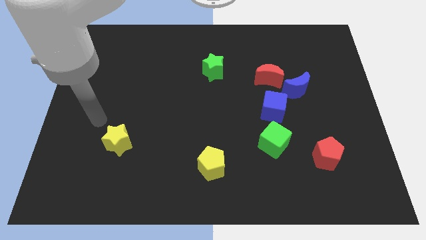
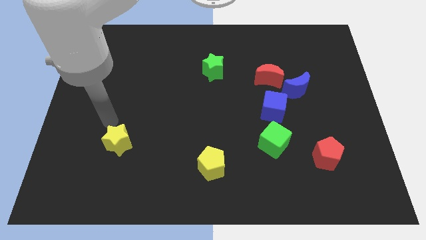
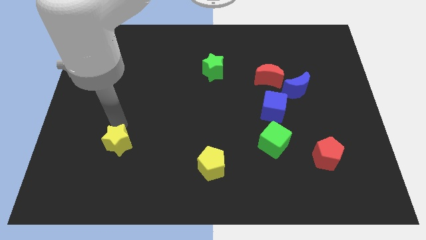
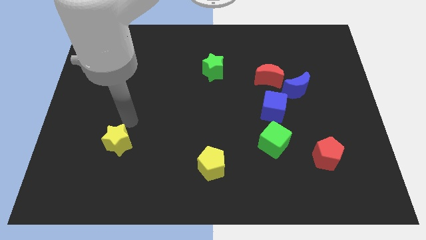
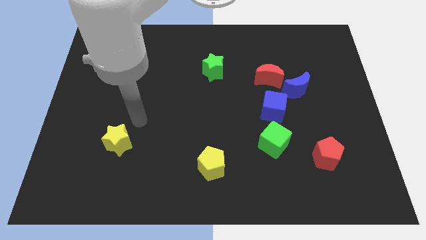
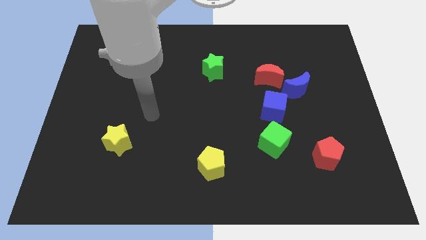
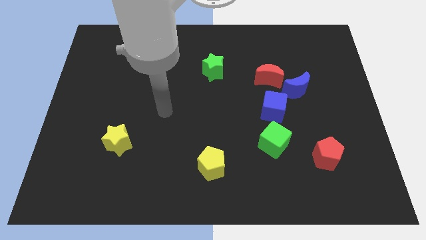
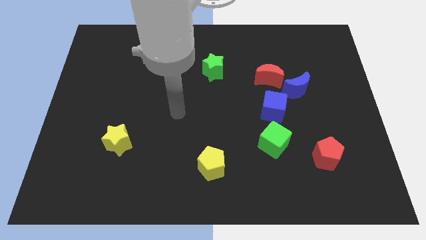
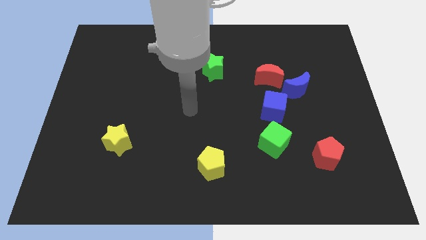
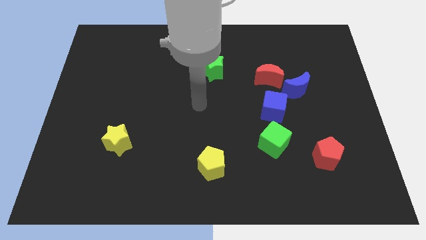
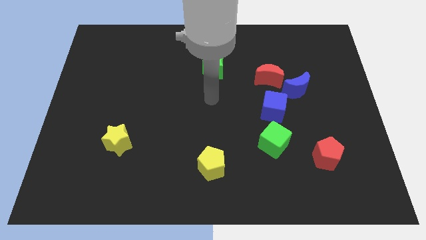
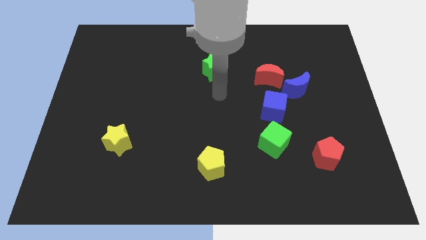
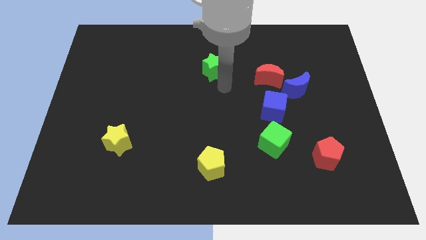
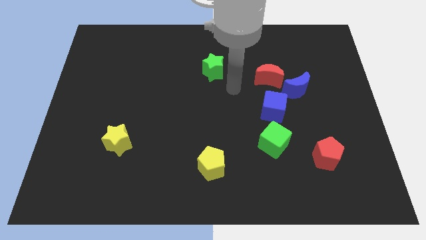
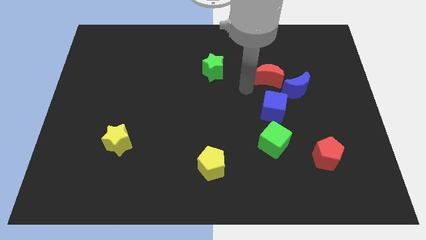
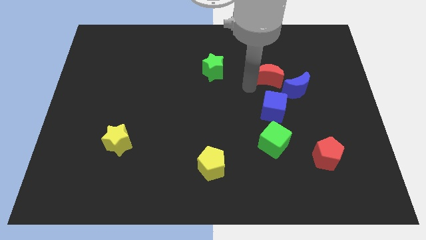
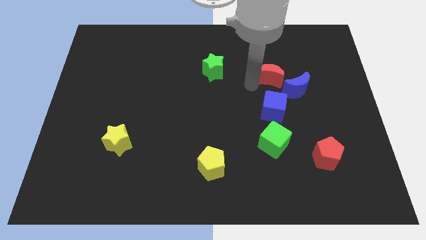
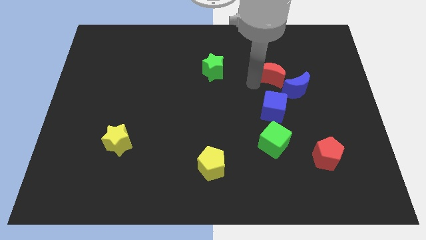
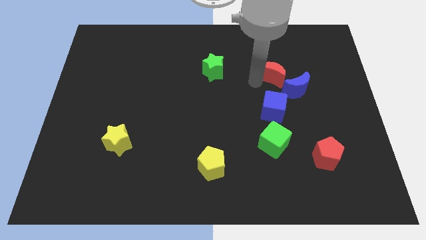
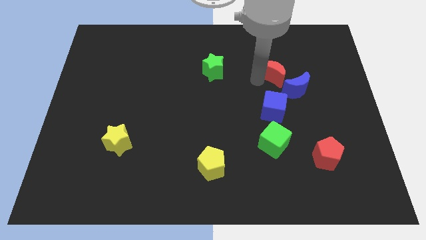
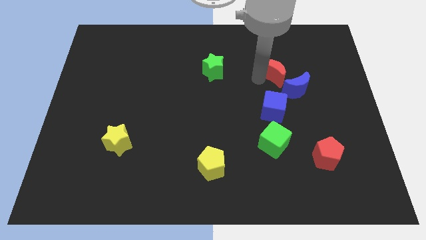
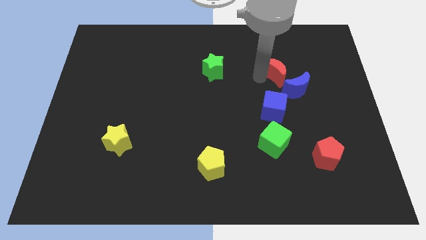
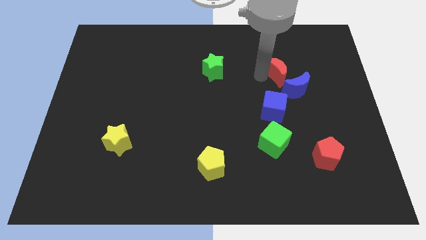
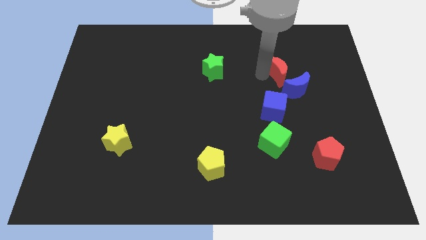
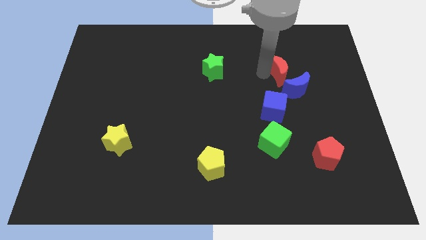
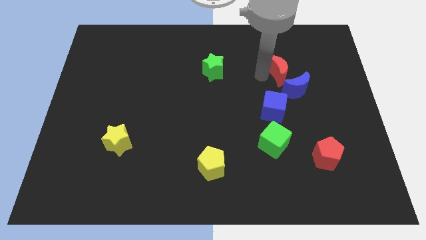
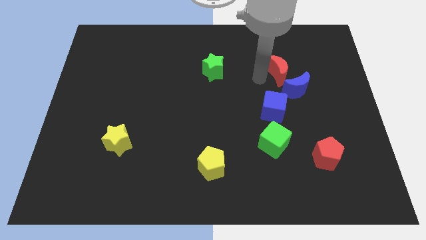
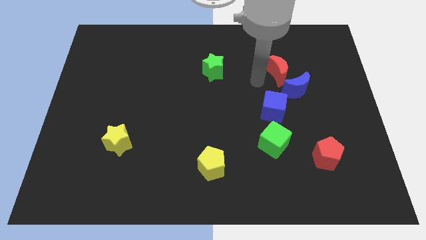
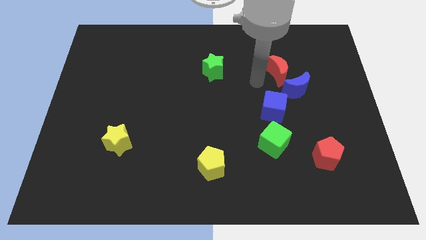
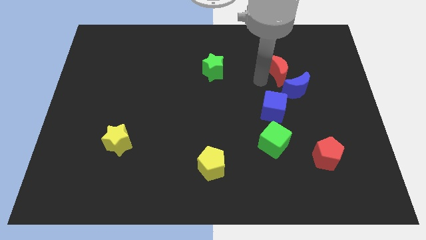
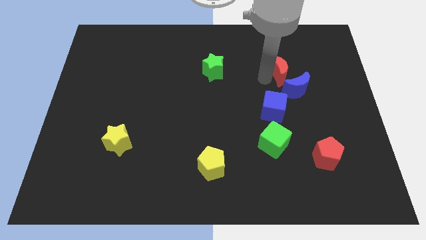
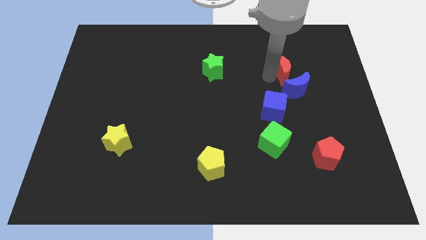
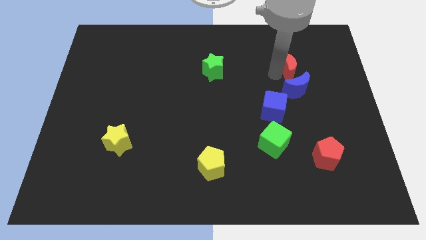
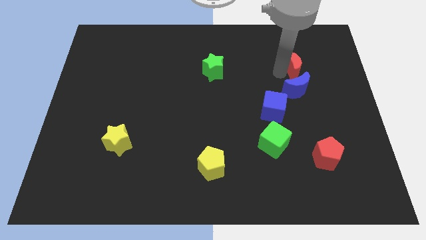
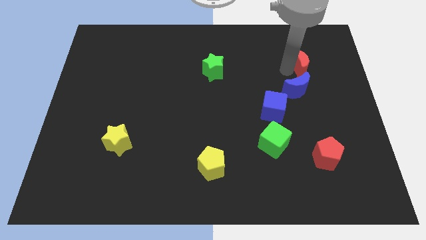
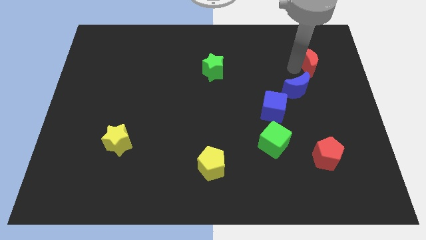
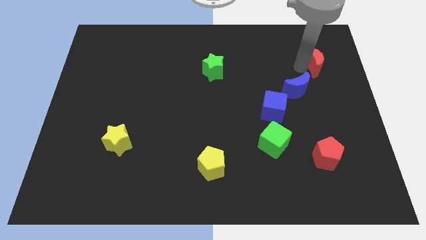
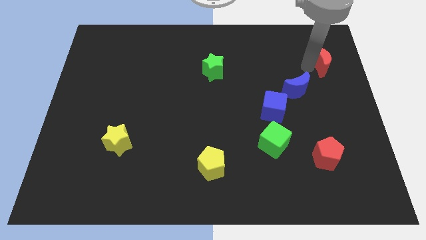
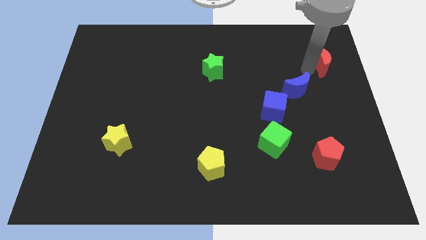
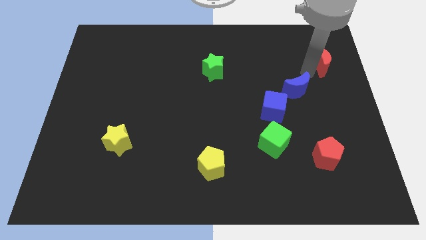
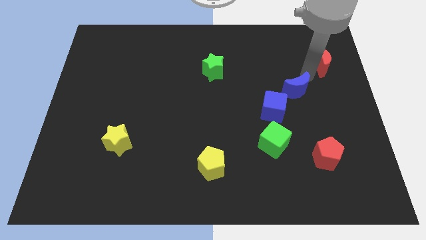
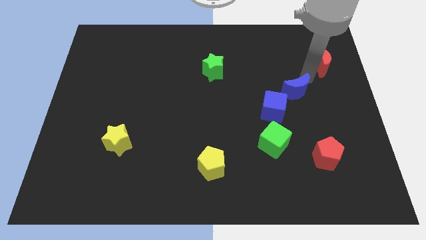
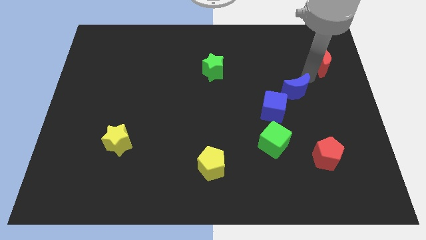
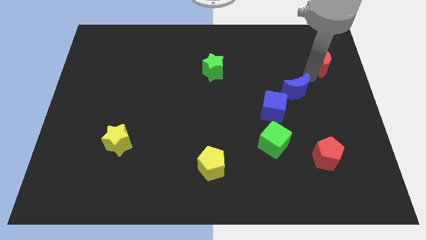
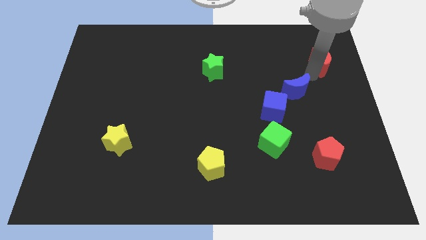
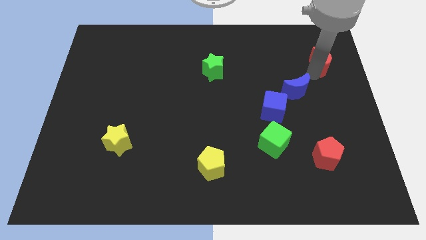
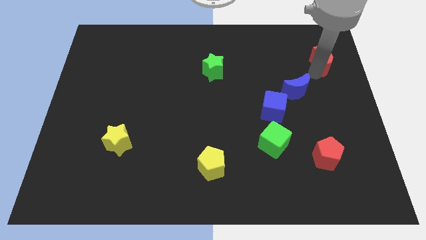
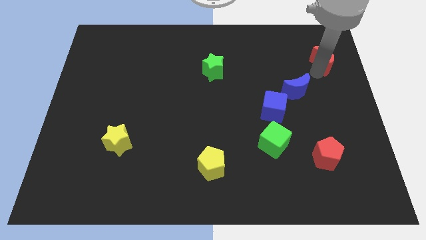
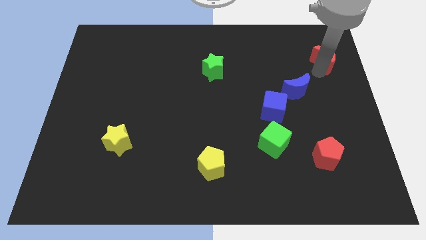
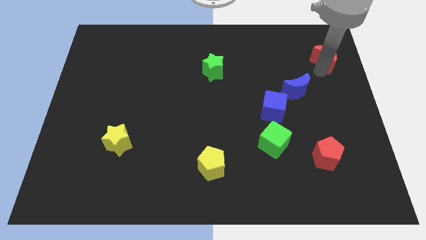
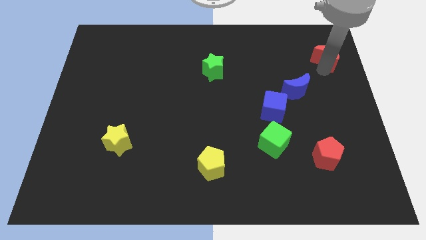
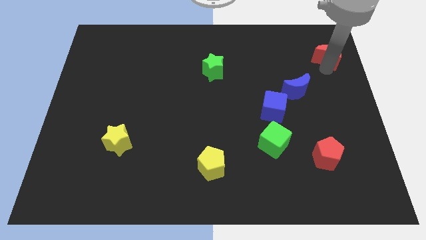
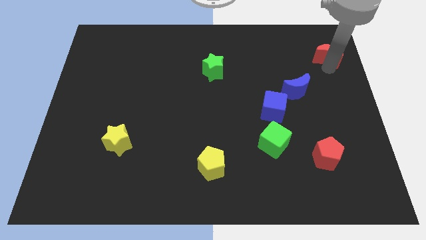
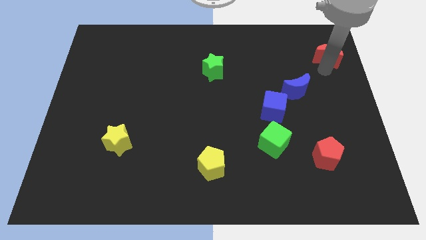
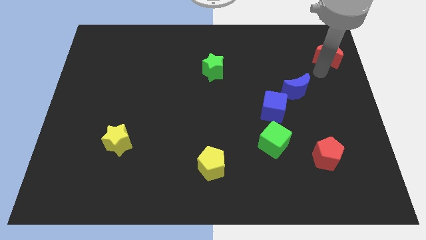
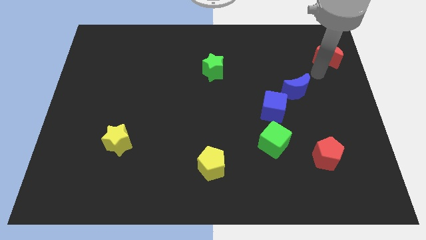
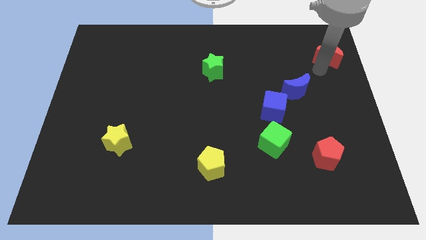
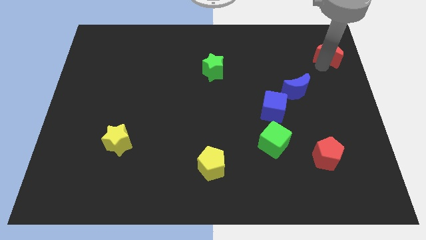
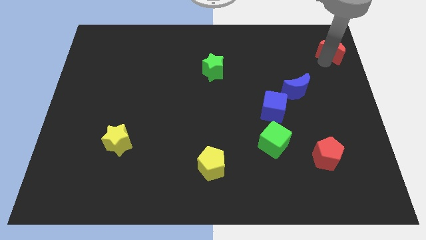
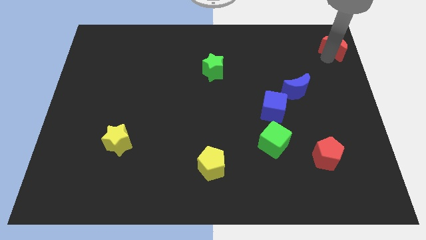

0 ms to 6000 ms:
slide the red moon to the top right
